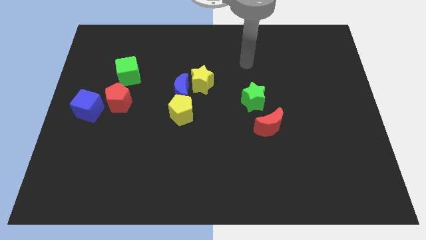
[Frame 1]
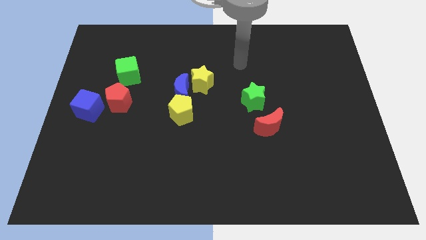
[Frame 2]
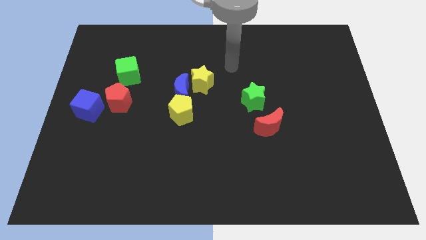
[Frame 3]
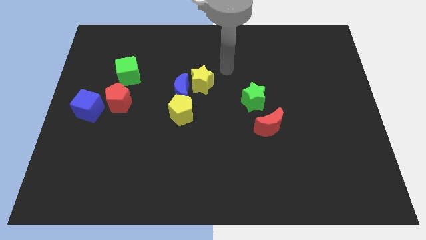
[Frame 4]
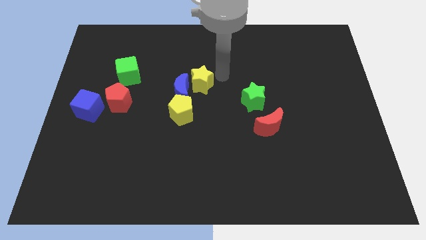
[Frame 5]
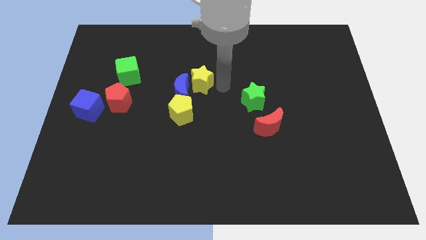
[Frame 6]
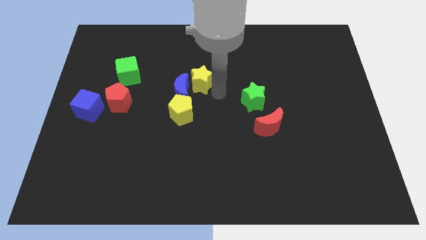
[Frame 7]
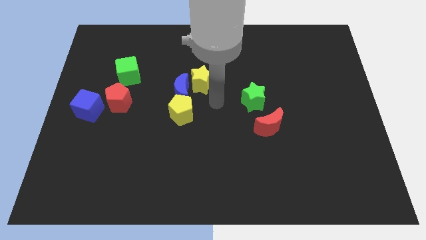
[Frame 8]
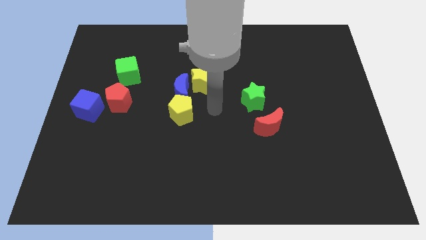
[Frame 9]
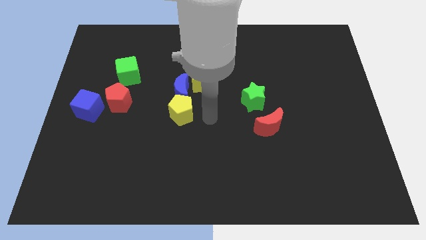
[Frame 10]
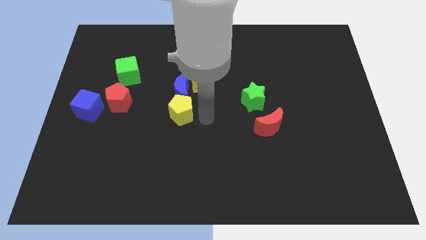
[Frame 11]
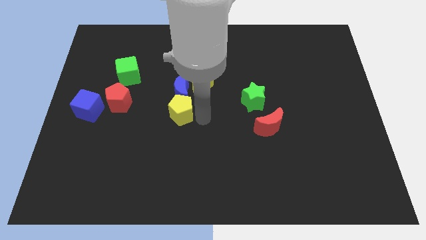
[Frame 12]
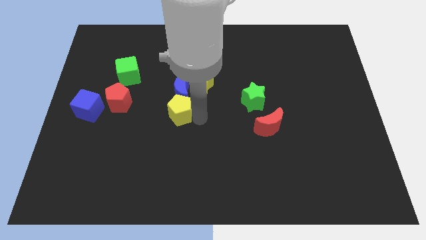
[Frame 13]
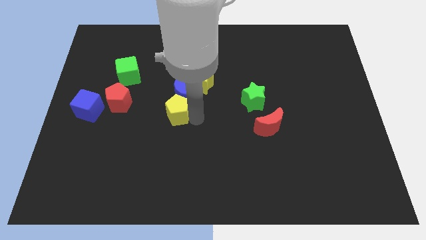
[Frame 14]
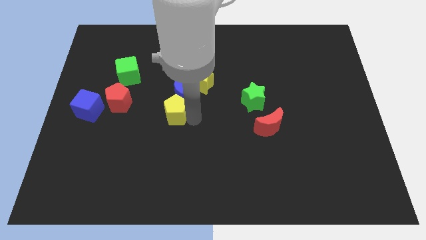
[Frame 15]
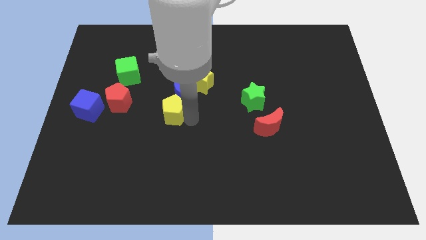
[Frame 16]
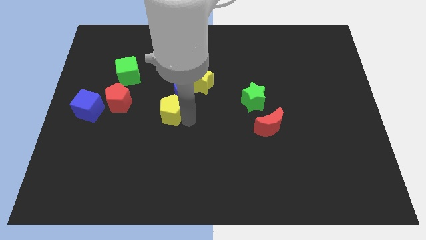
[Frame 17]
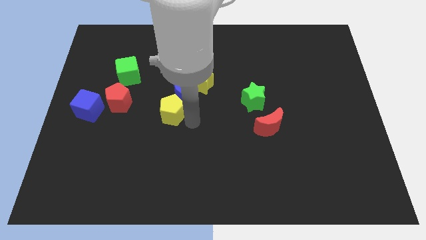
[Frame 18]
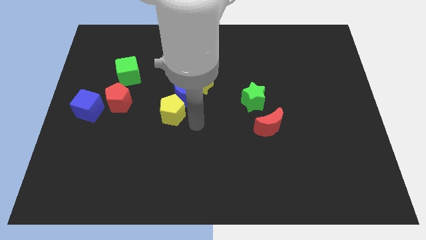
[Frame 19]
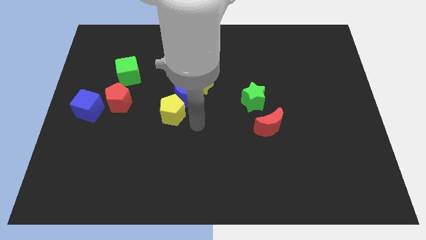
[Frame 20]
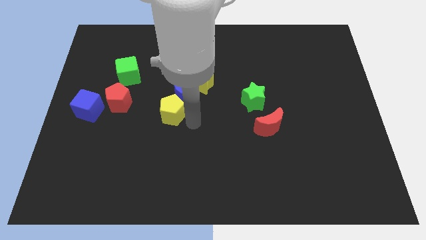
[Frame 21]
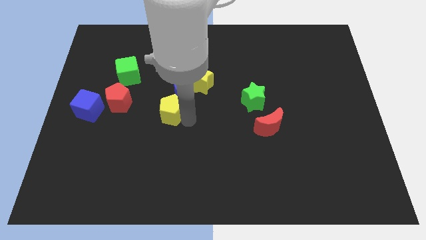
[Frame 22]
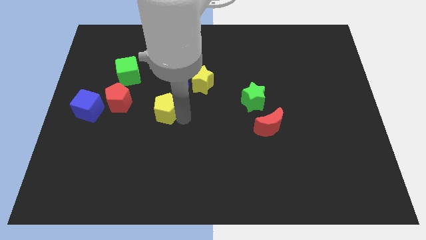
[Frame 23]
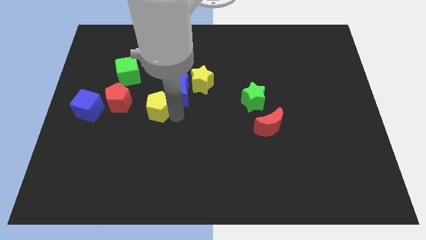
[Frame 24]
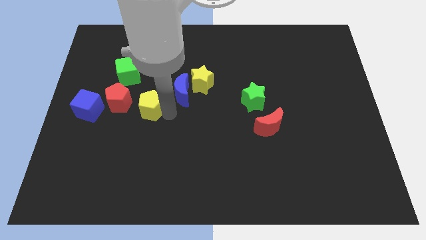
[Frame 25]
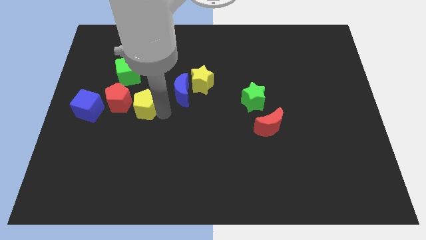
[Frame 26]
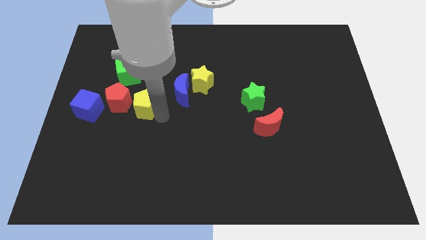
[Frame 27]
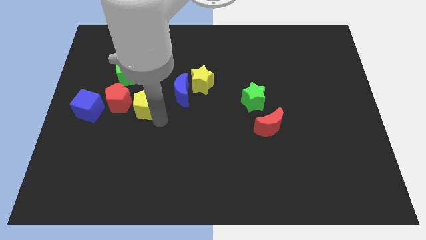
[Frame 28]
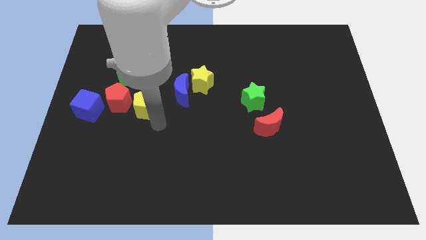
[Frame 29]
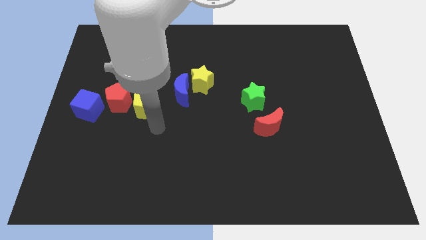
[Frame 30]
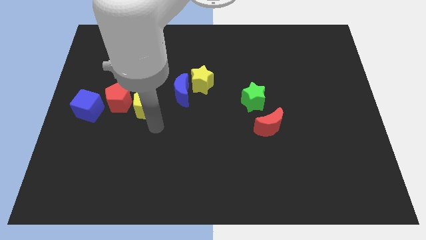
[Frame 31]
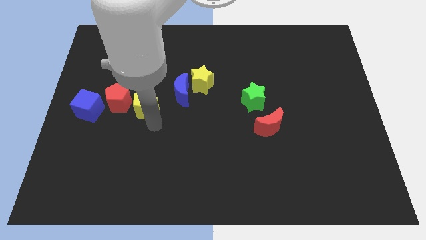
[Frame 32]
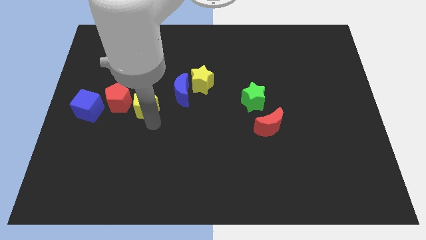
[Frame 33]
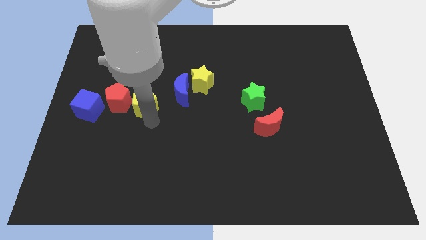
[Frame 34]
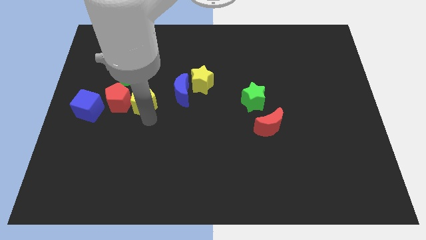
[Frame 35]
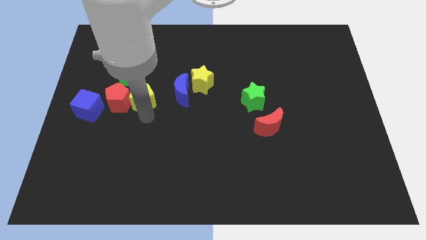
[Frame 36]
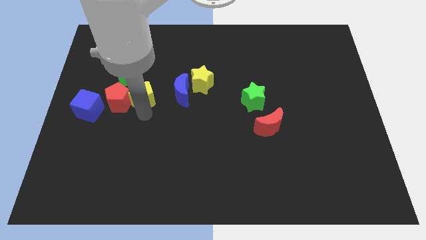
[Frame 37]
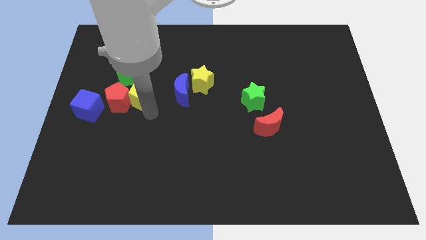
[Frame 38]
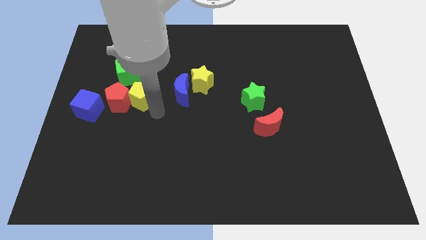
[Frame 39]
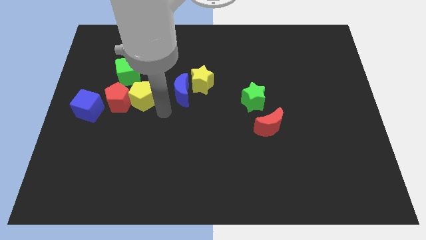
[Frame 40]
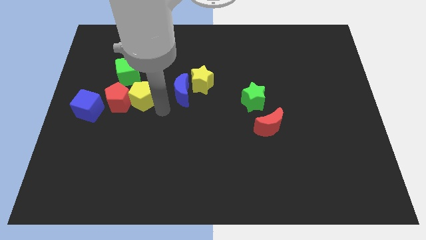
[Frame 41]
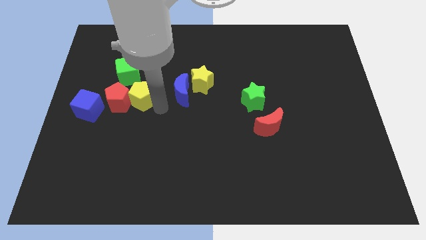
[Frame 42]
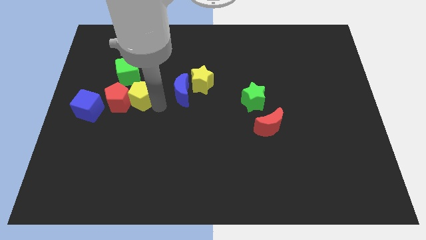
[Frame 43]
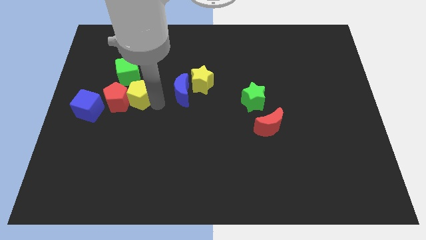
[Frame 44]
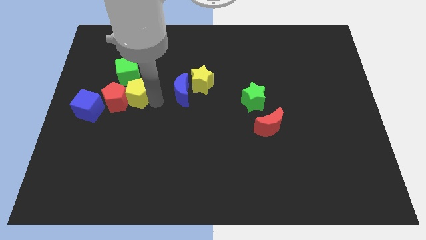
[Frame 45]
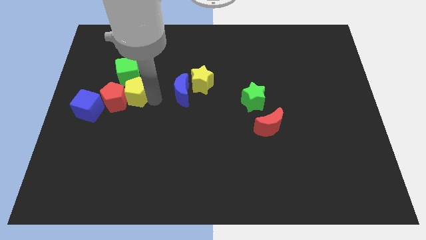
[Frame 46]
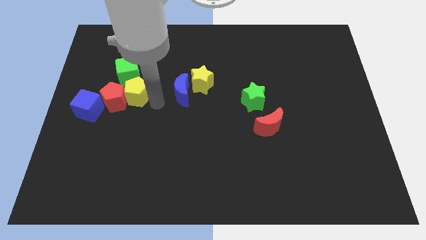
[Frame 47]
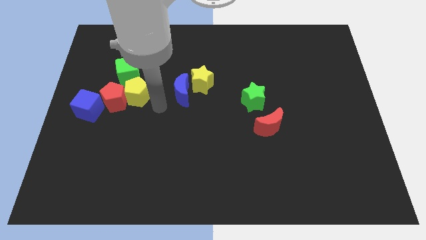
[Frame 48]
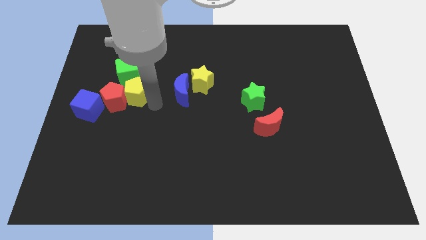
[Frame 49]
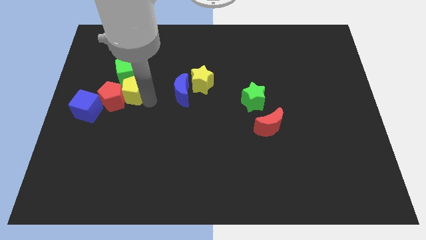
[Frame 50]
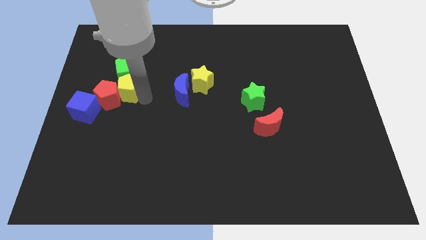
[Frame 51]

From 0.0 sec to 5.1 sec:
slide the yellow pentagon diagonally down and to the left of the green cube

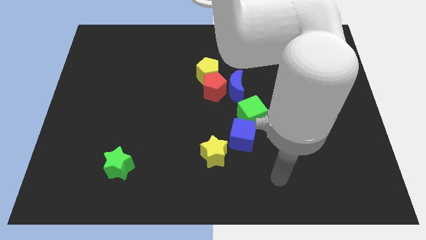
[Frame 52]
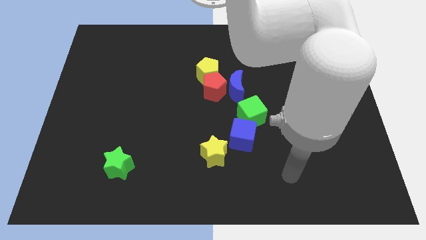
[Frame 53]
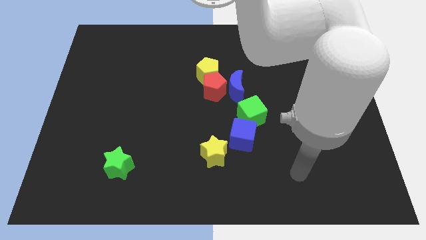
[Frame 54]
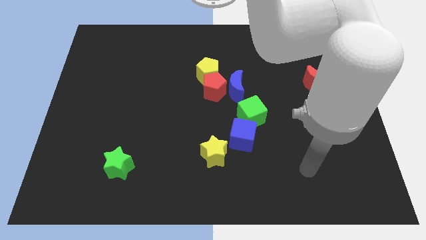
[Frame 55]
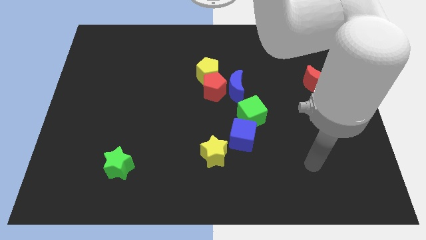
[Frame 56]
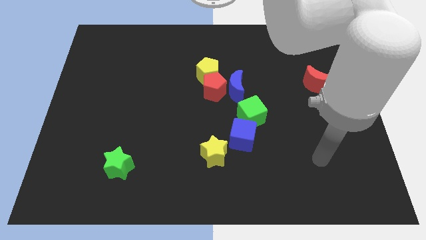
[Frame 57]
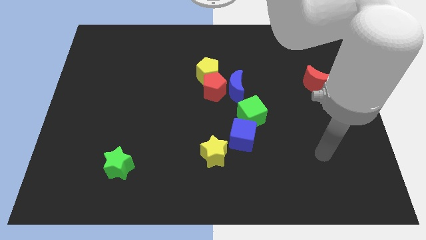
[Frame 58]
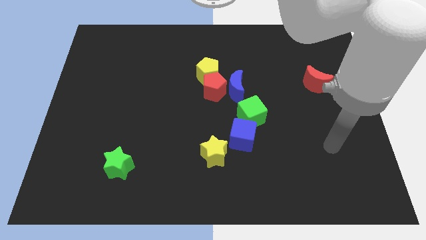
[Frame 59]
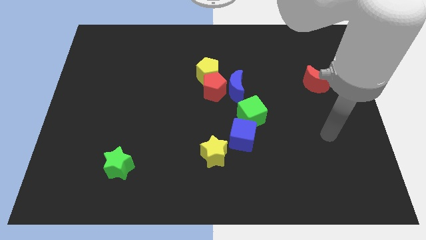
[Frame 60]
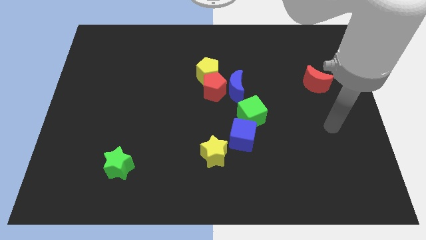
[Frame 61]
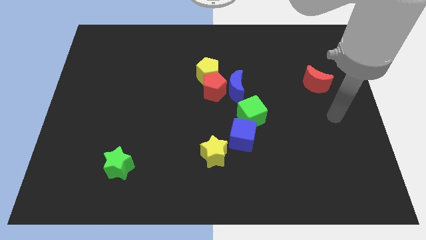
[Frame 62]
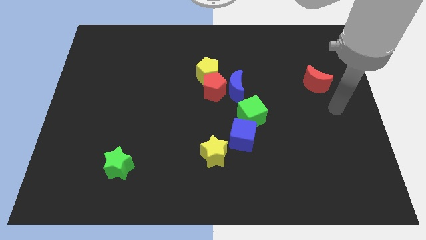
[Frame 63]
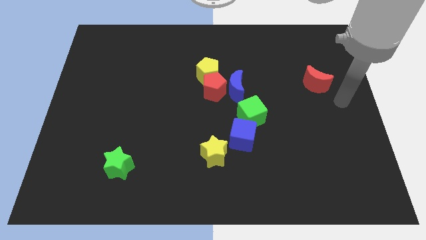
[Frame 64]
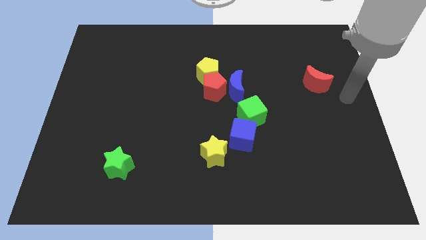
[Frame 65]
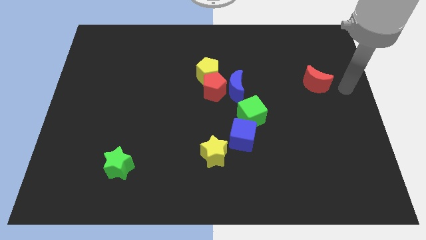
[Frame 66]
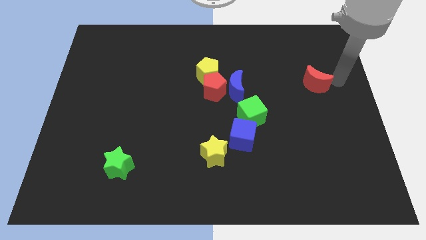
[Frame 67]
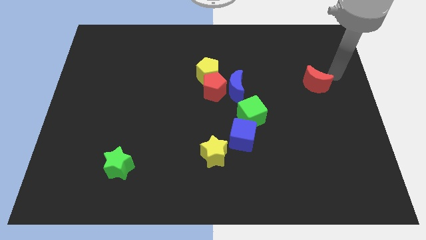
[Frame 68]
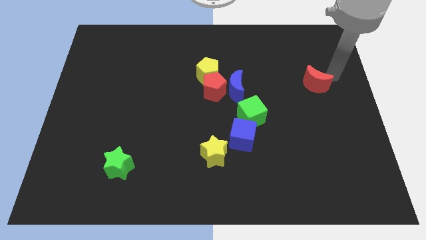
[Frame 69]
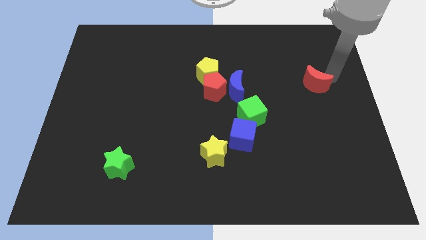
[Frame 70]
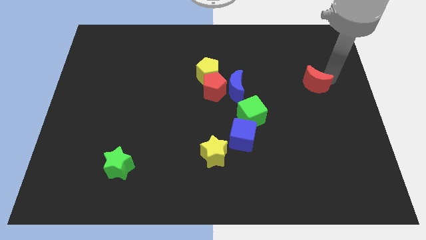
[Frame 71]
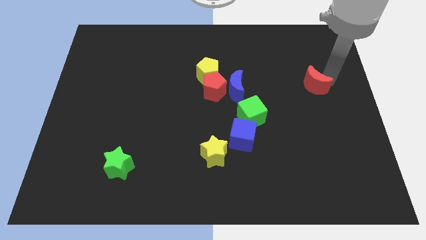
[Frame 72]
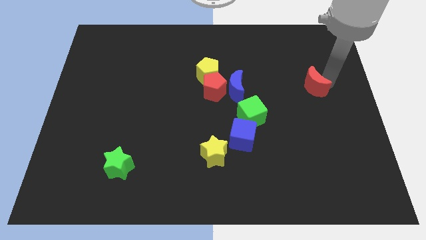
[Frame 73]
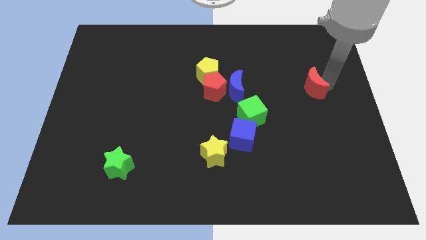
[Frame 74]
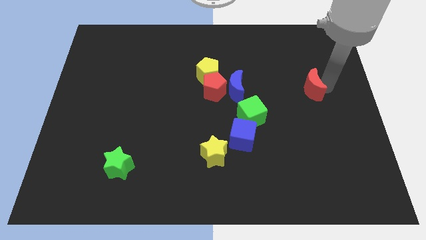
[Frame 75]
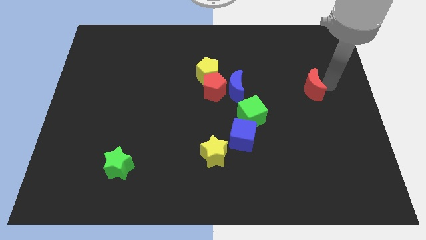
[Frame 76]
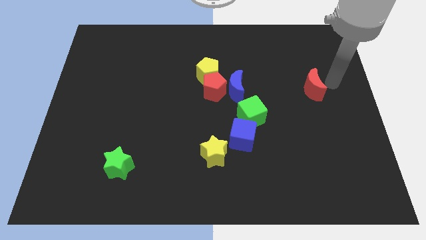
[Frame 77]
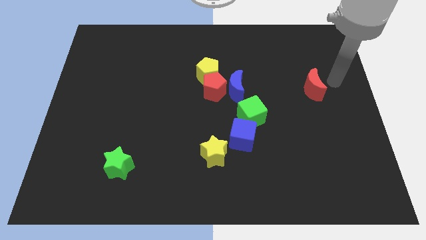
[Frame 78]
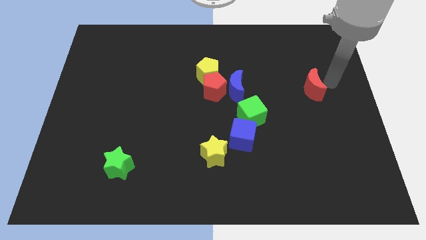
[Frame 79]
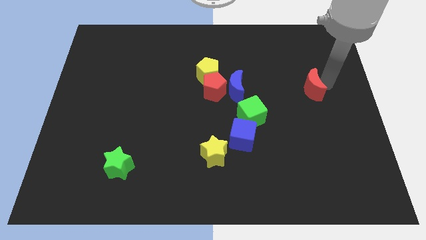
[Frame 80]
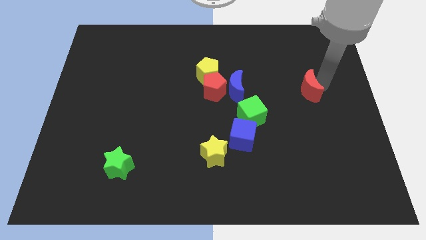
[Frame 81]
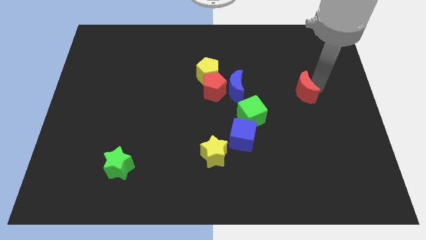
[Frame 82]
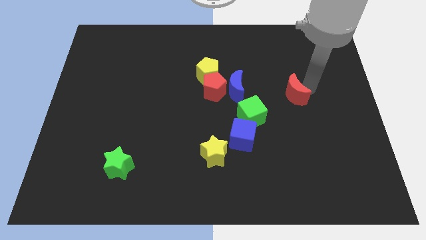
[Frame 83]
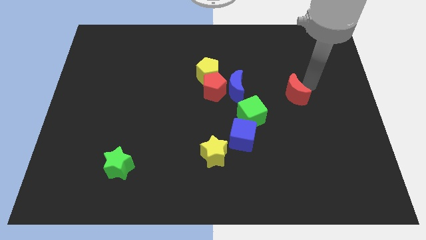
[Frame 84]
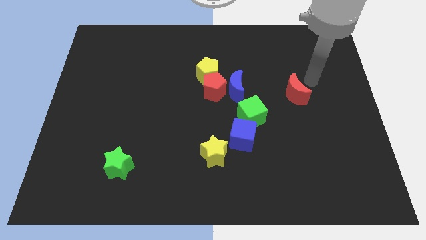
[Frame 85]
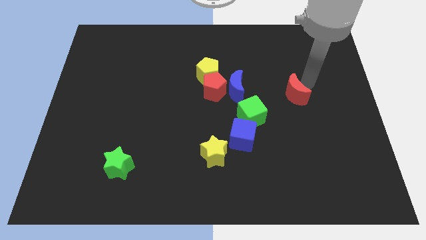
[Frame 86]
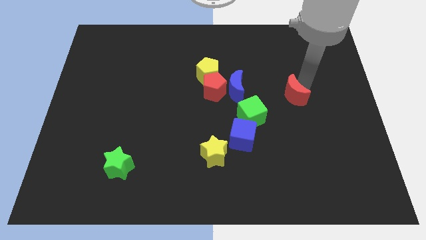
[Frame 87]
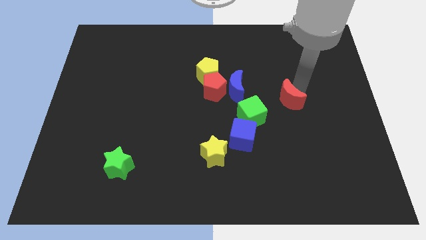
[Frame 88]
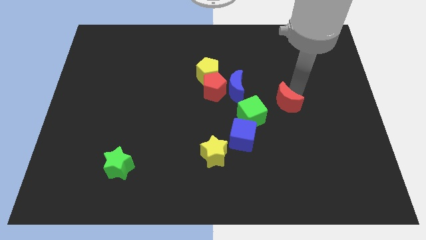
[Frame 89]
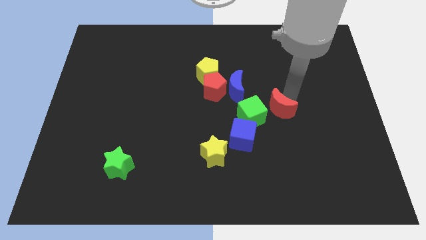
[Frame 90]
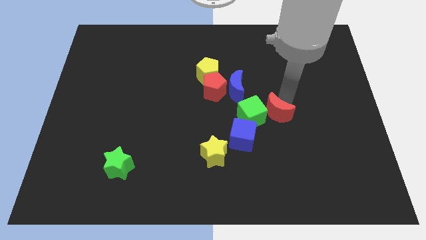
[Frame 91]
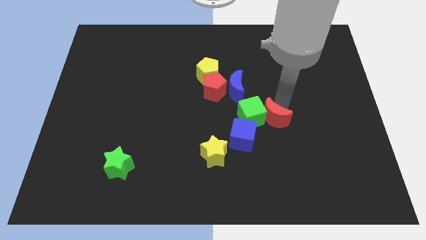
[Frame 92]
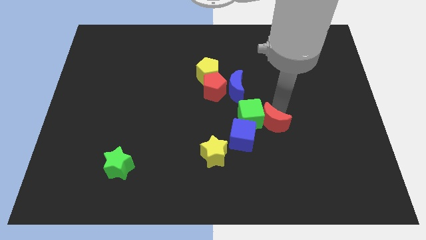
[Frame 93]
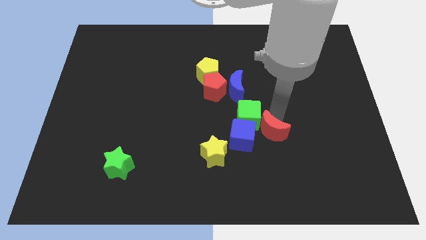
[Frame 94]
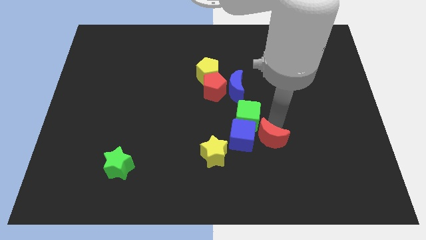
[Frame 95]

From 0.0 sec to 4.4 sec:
move the red moon to the bottom side of the green cube
